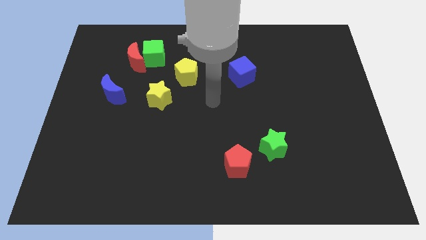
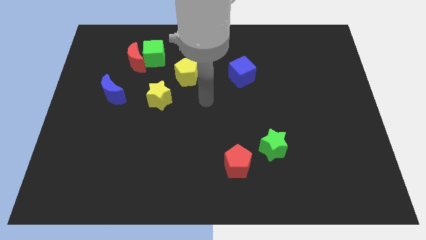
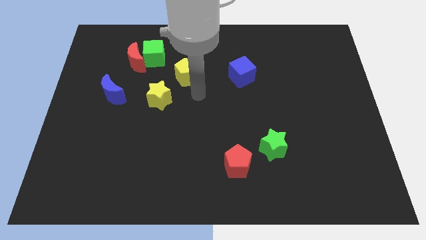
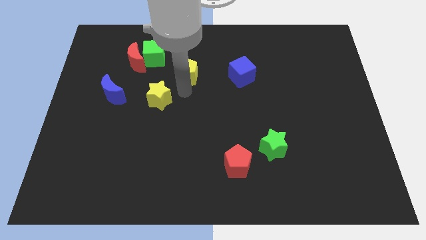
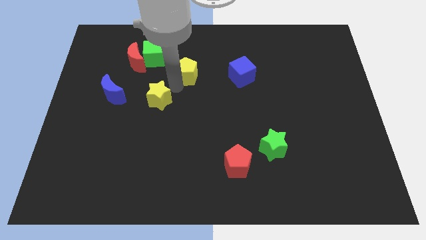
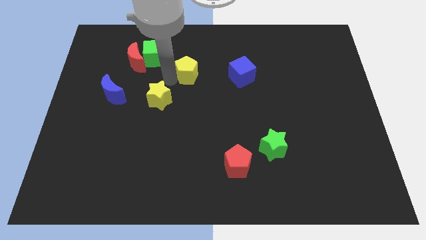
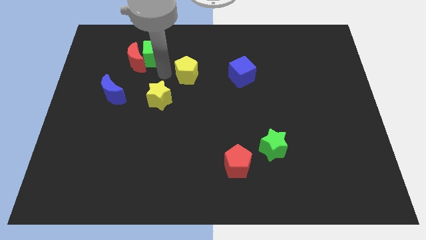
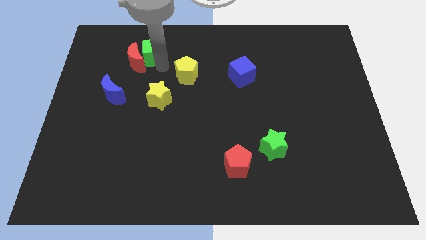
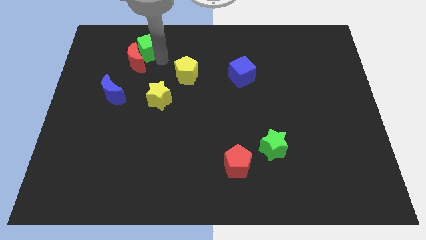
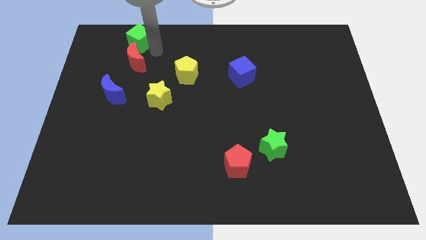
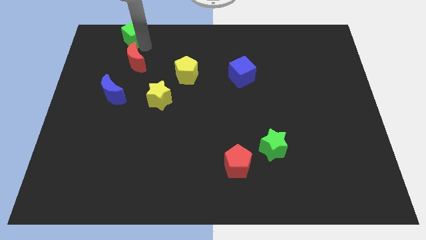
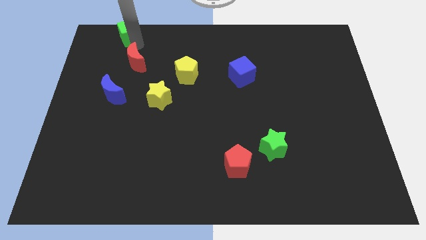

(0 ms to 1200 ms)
separate the red moon from the green cube

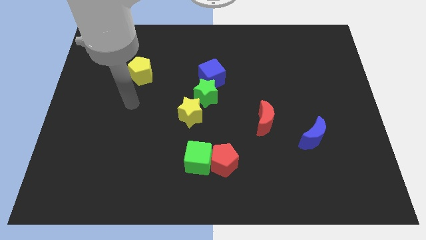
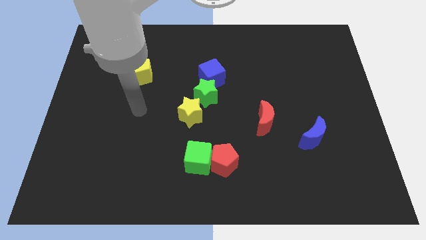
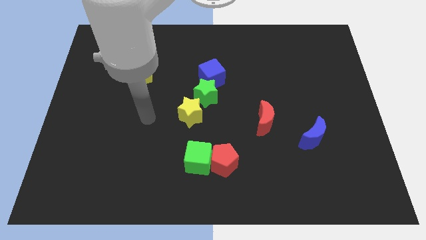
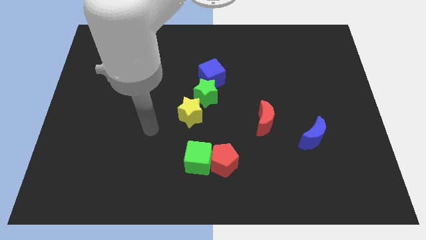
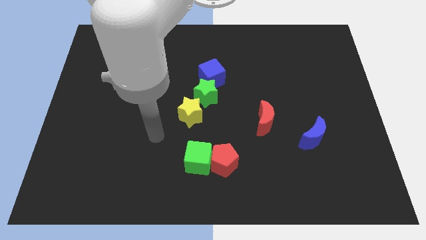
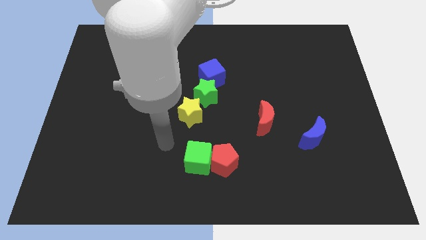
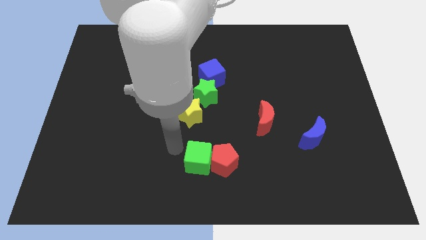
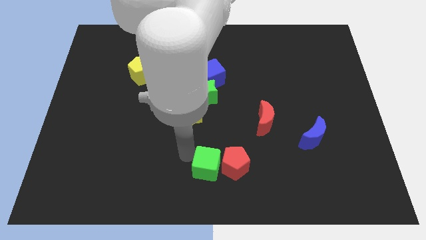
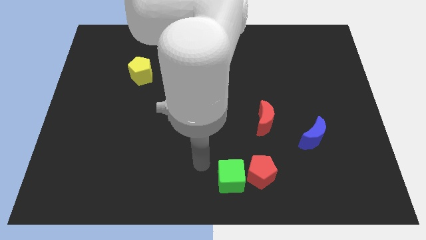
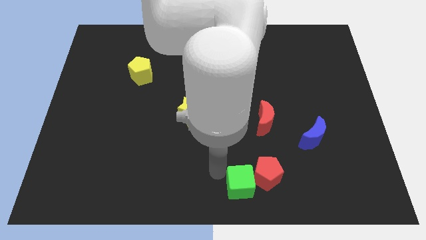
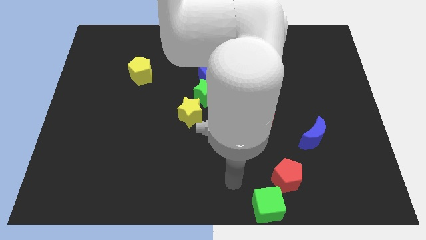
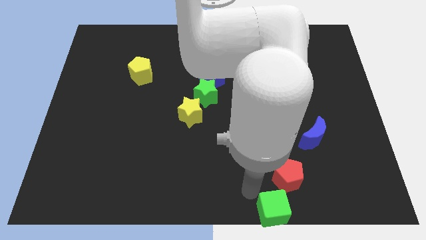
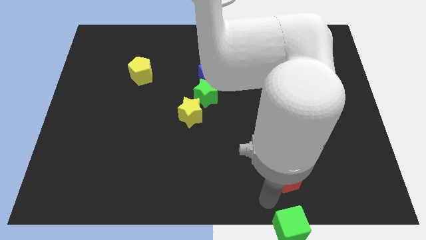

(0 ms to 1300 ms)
move the red pentagon away from the green cube

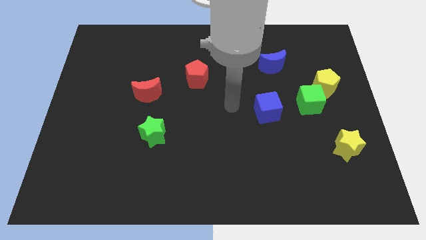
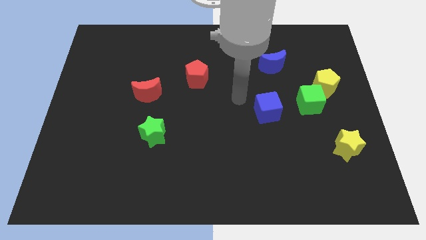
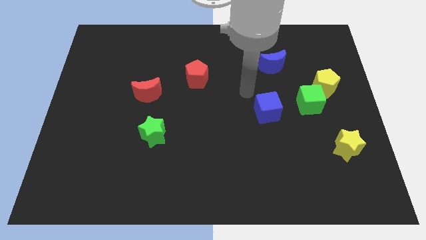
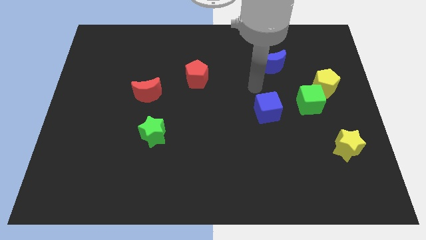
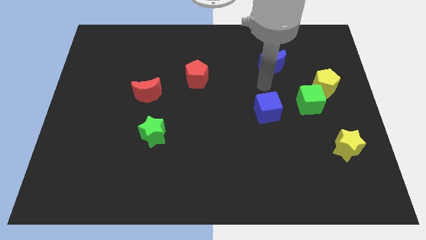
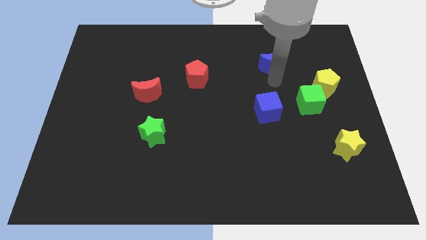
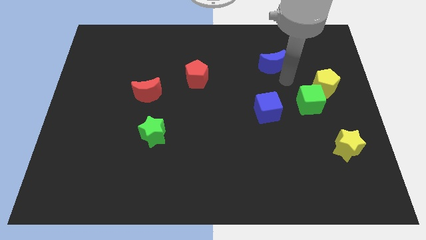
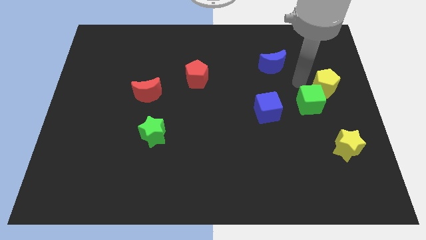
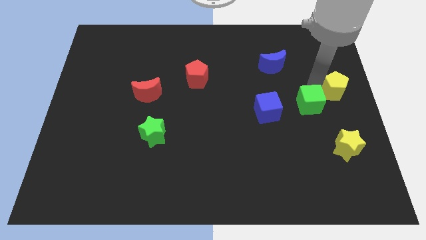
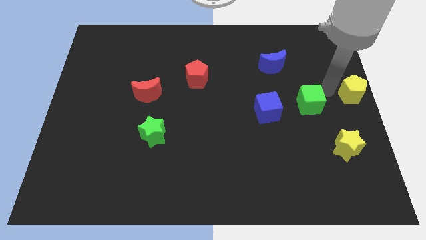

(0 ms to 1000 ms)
move the green cube away from the yellow pentagon

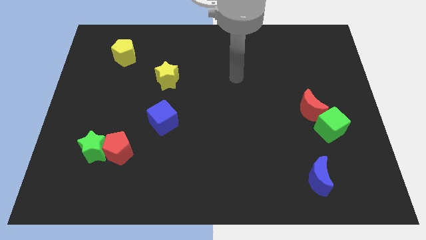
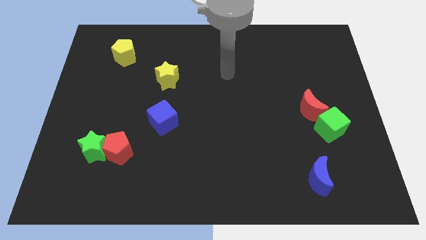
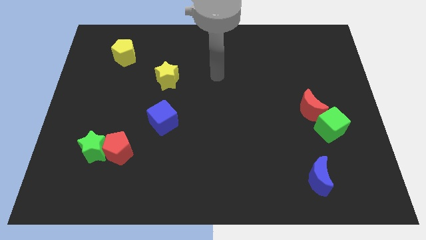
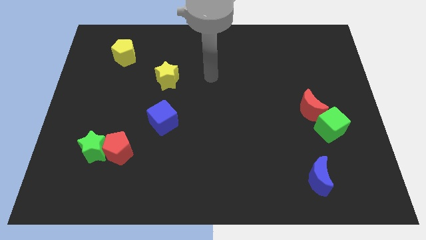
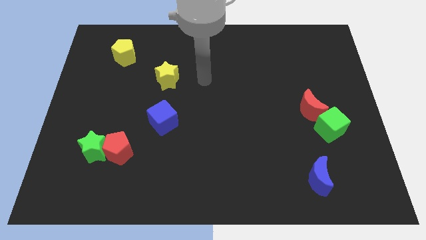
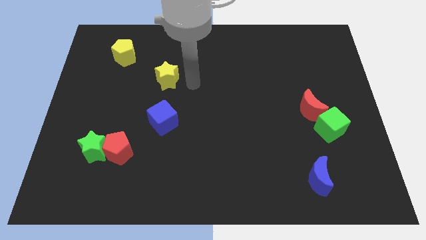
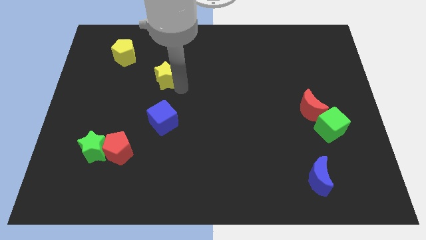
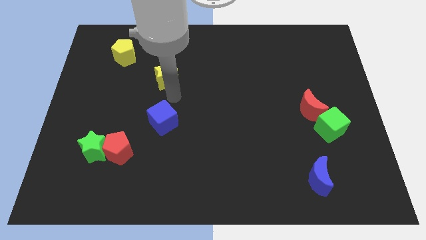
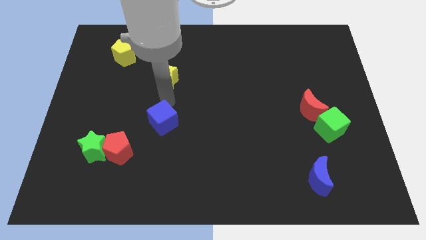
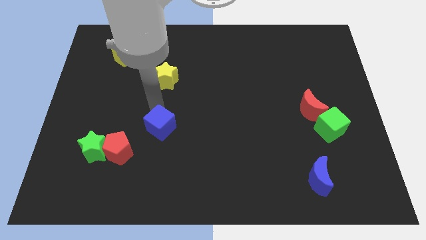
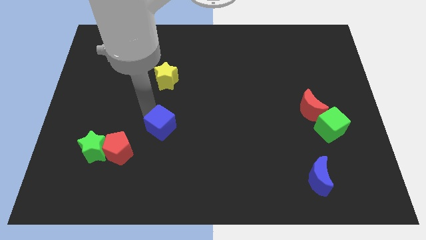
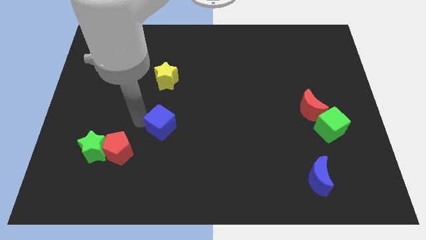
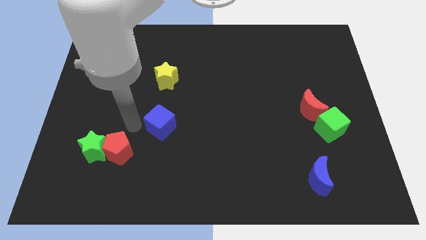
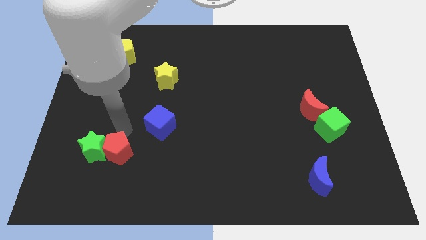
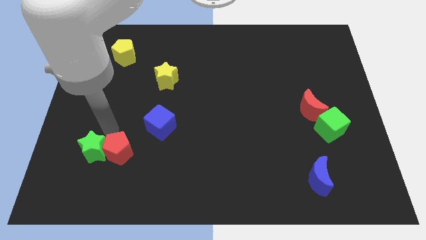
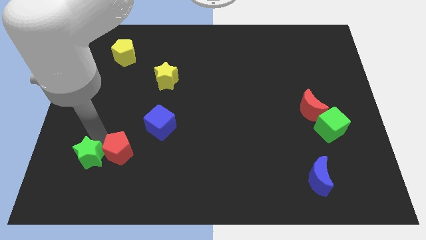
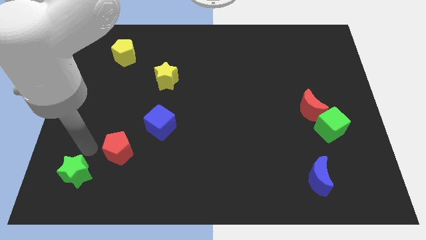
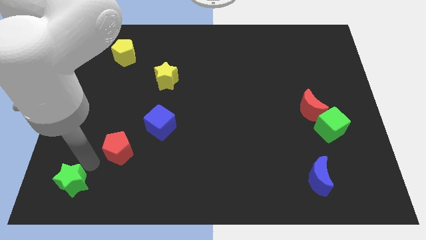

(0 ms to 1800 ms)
pull the red pentagon apart from the green star

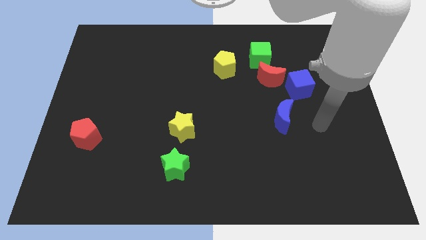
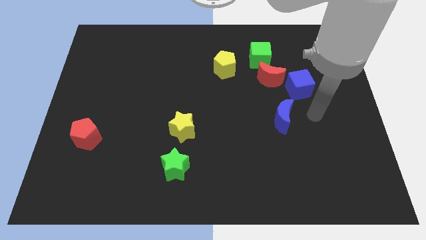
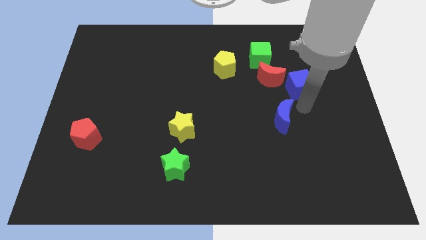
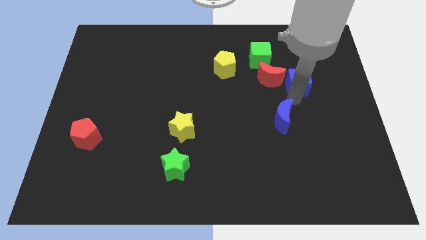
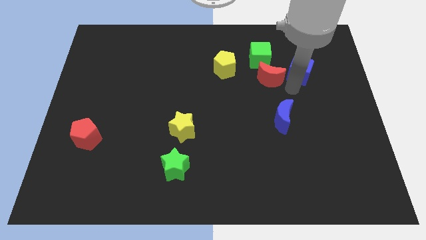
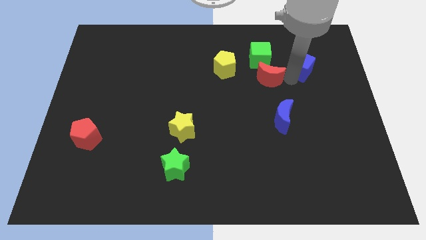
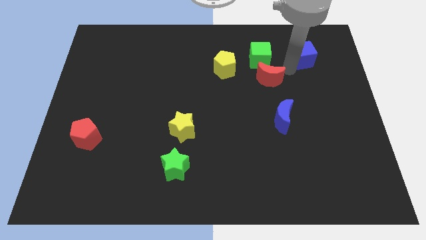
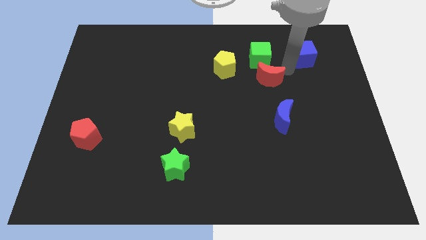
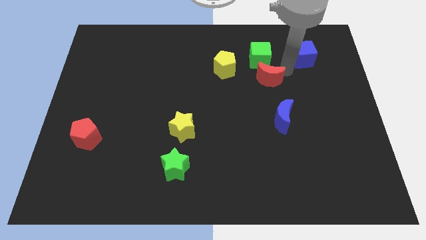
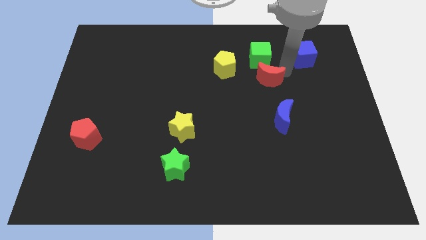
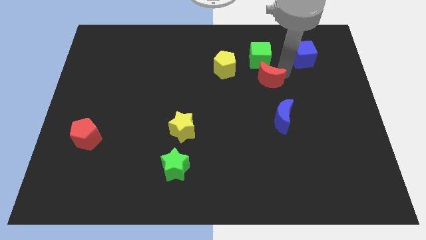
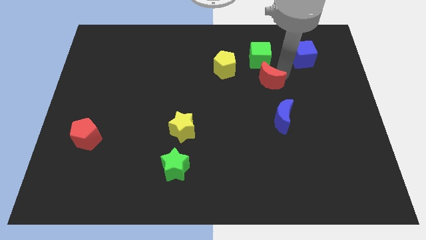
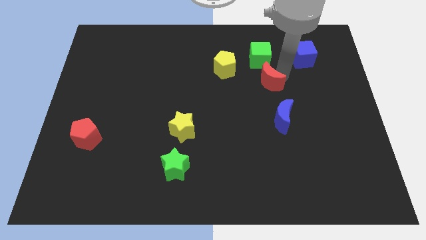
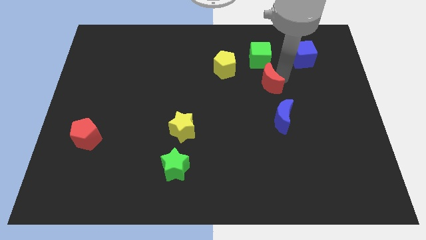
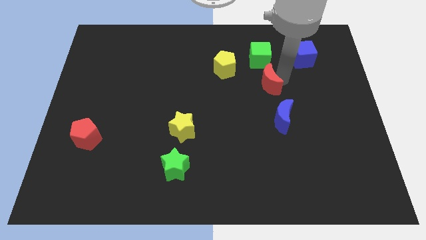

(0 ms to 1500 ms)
separate the red moon from the green cube and blue cube

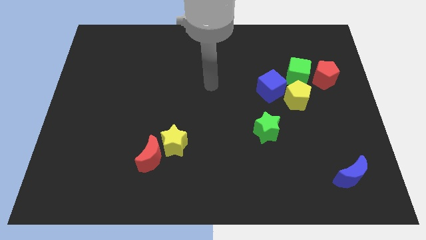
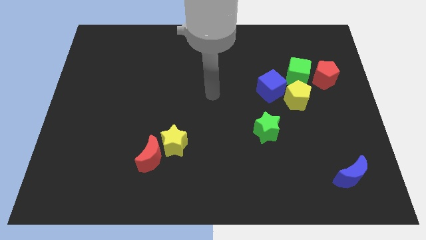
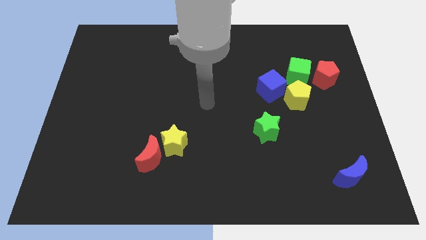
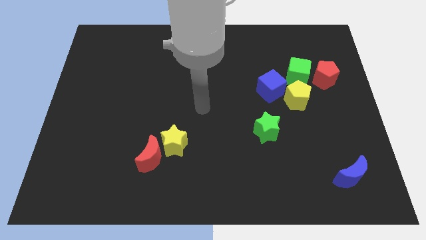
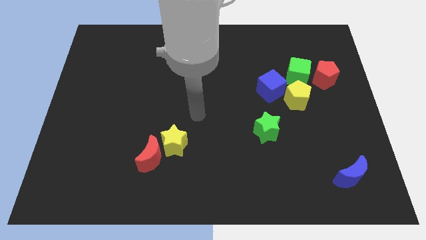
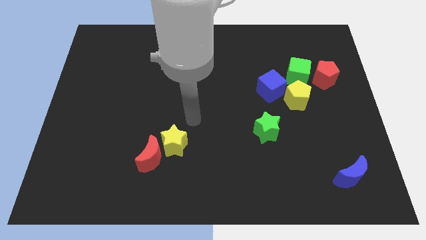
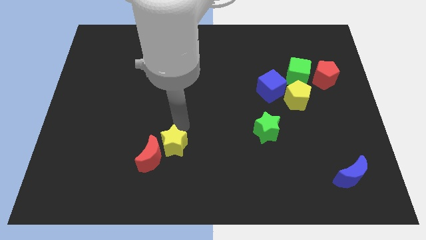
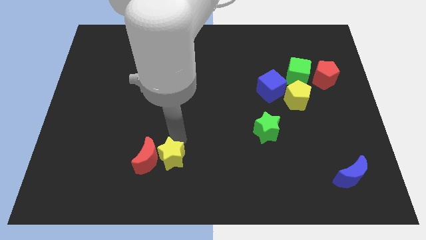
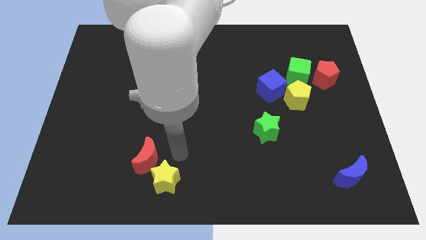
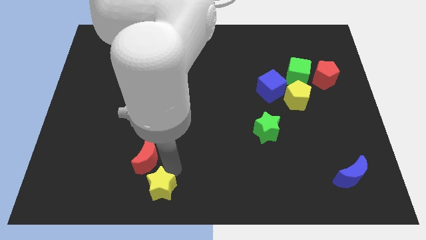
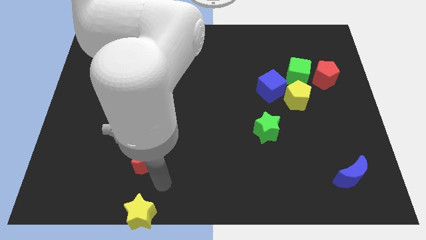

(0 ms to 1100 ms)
pull the red moon apart from the yellow star

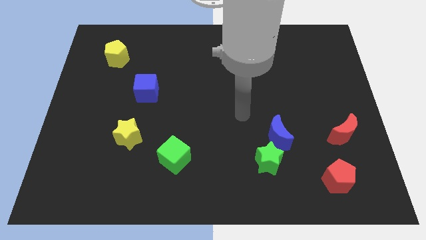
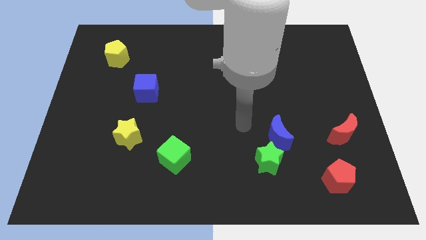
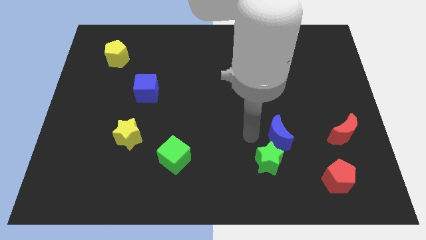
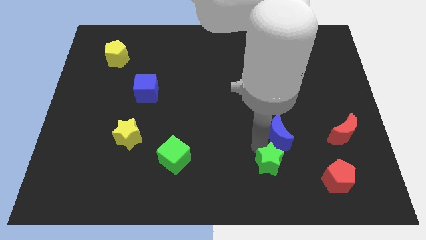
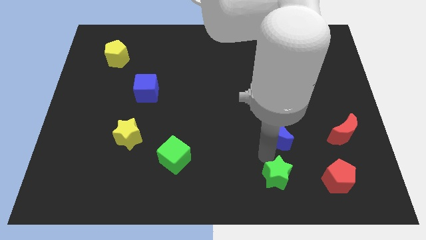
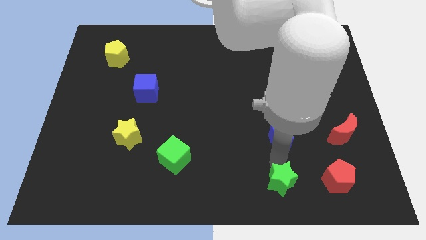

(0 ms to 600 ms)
separate the blue moon from the green star

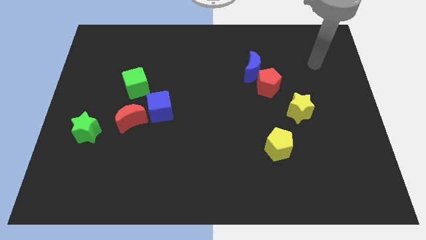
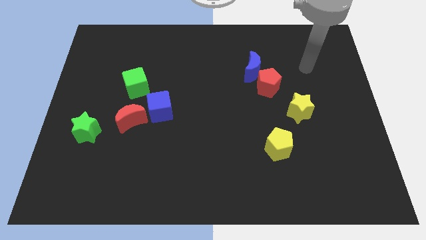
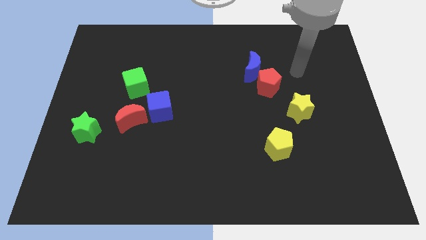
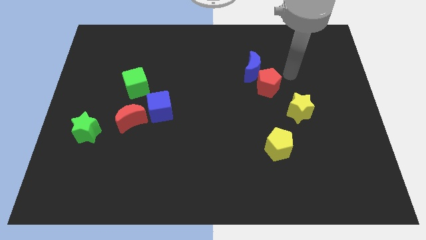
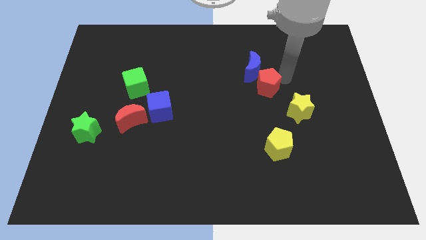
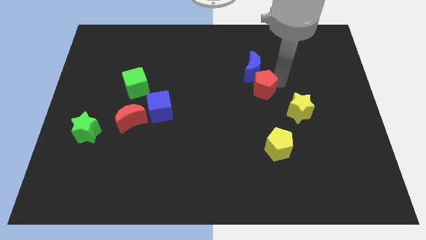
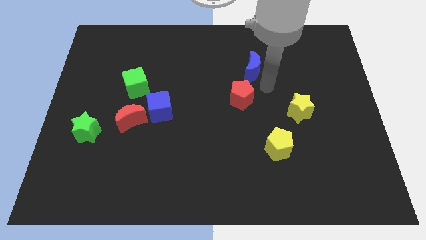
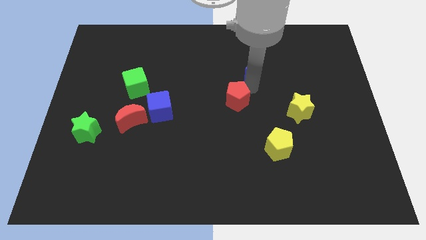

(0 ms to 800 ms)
pull the blue moon apart from the red pentagon
